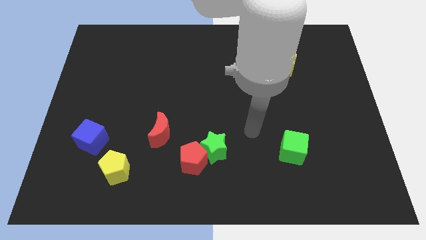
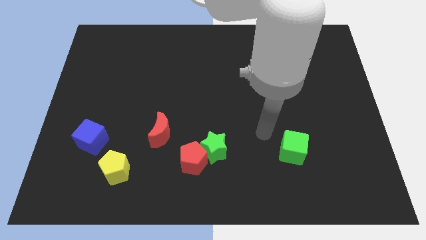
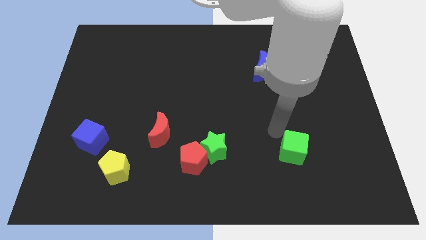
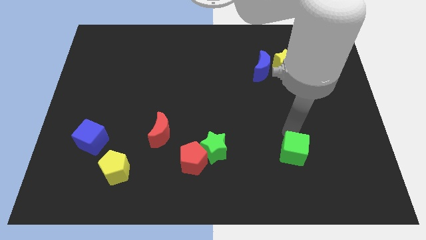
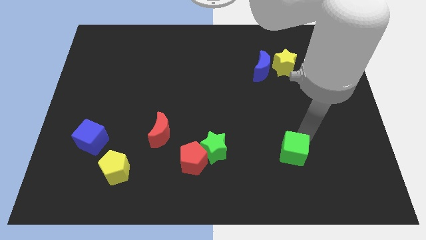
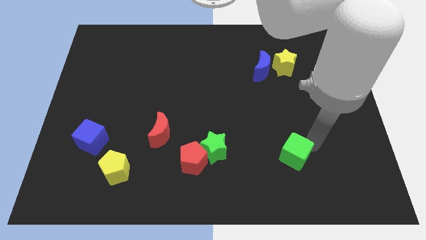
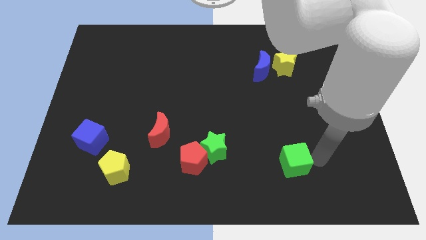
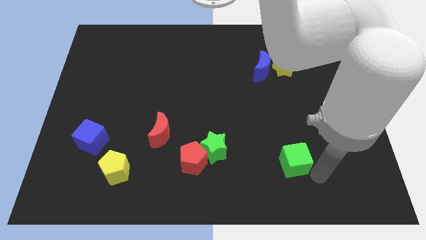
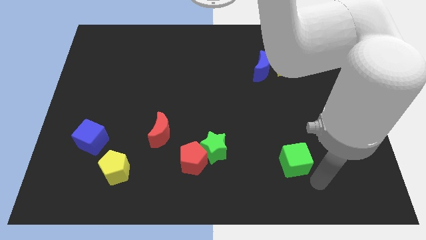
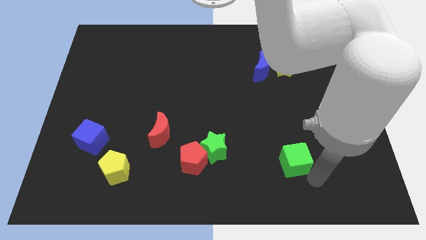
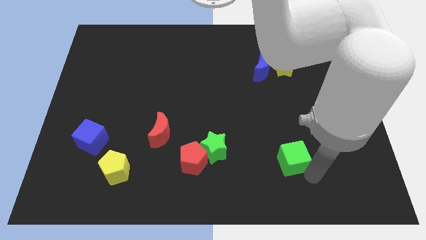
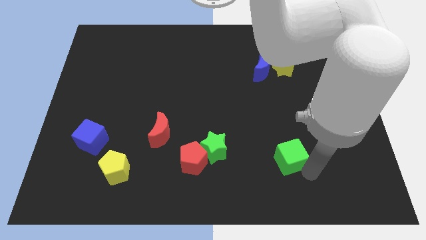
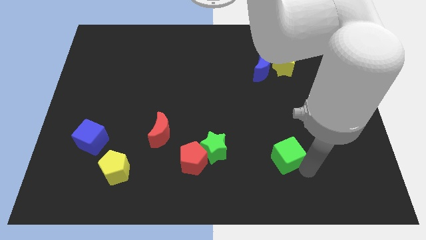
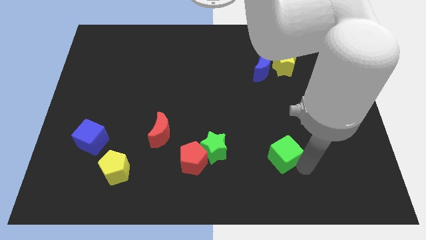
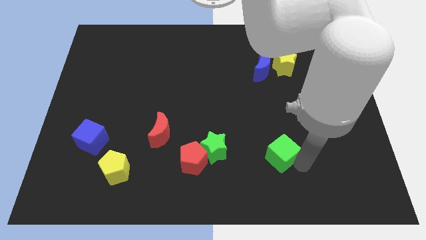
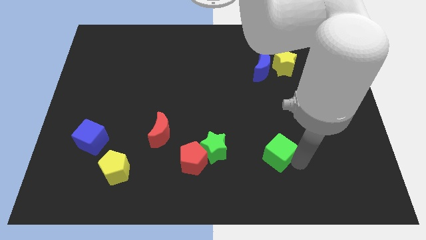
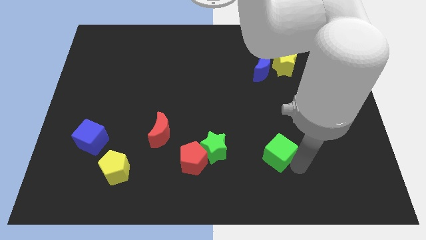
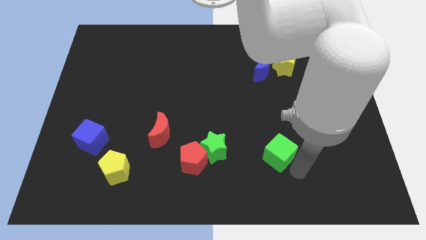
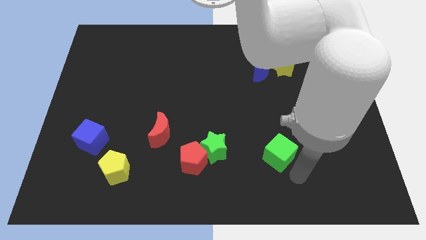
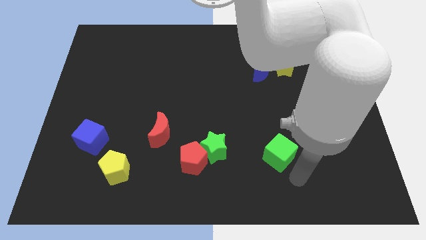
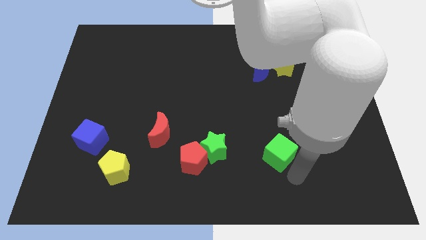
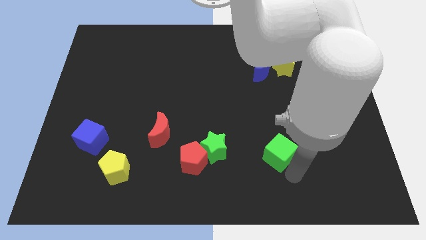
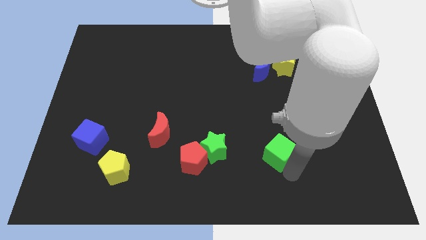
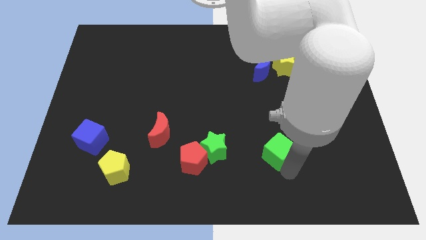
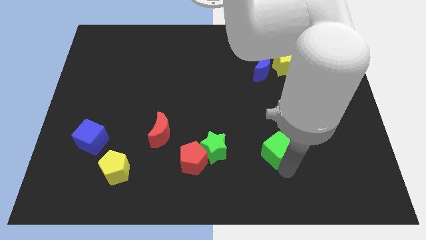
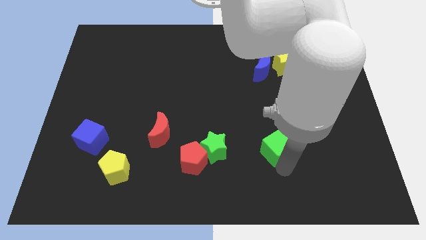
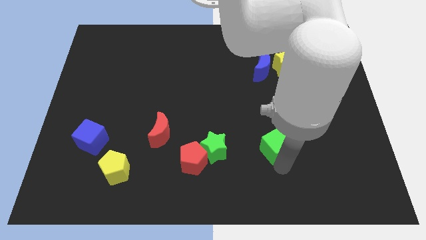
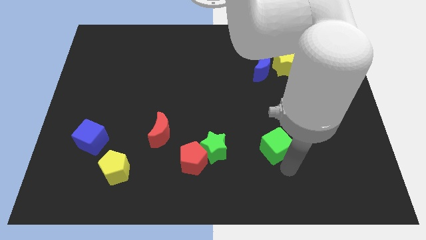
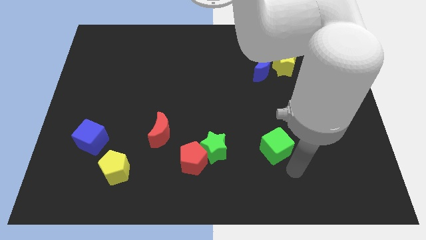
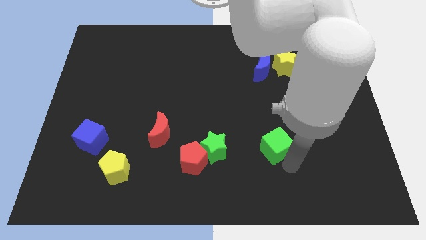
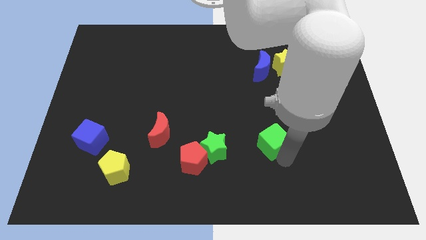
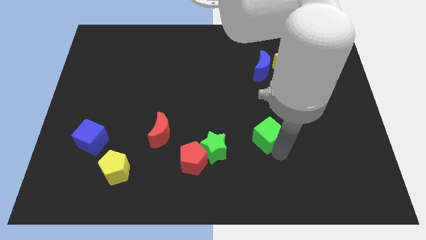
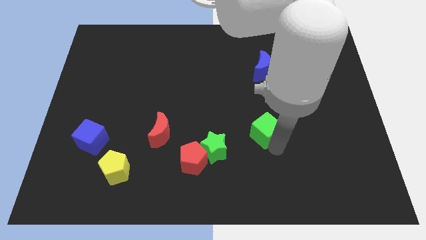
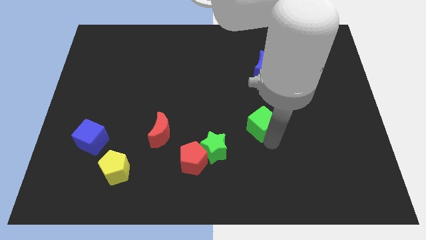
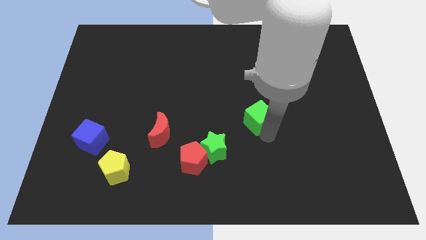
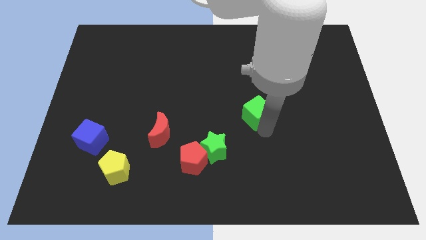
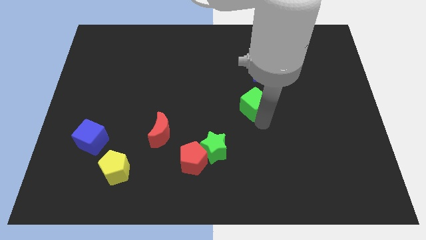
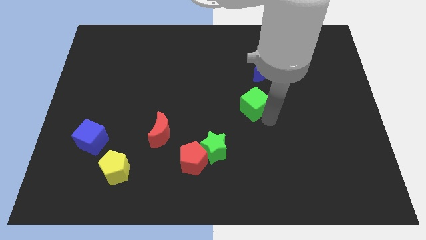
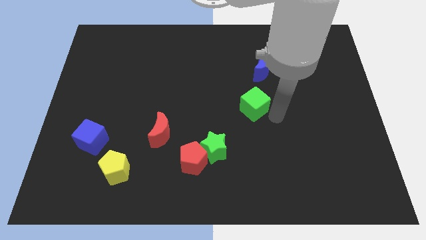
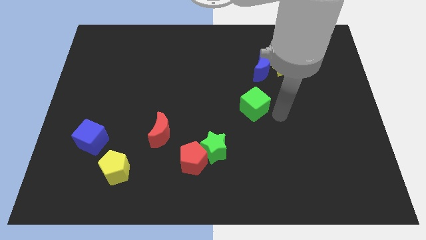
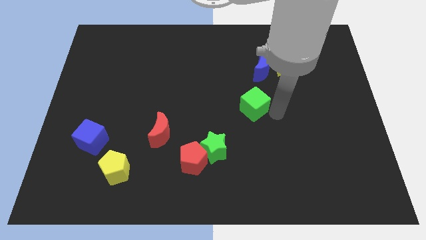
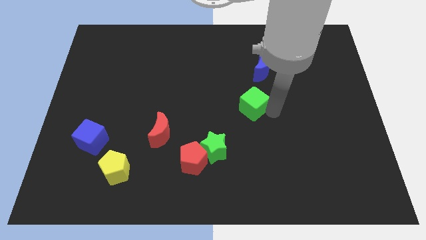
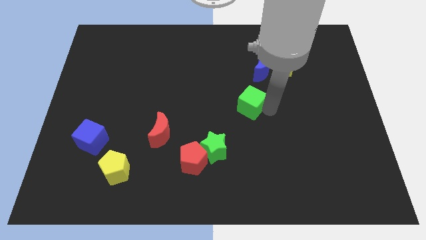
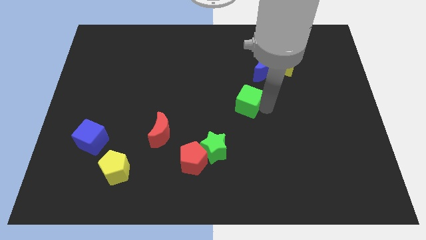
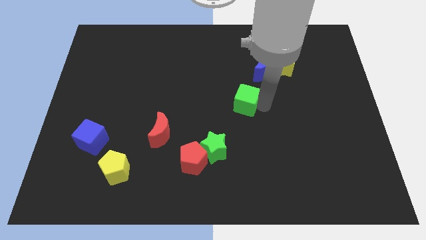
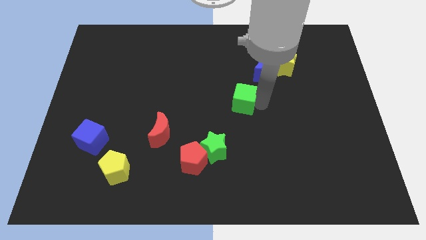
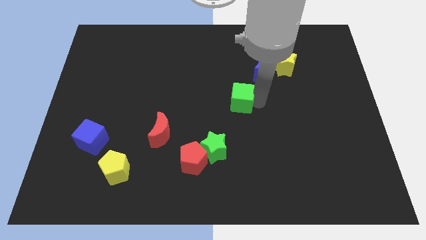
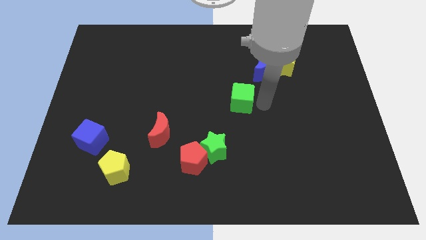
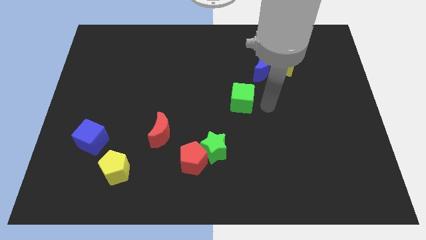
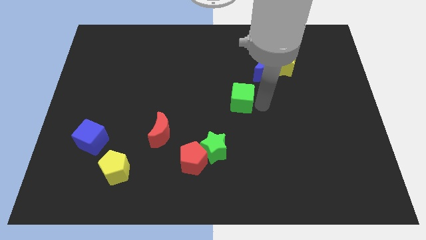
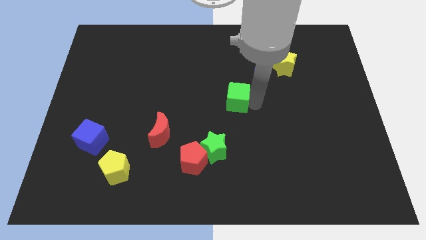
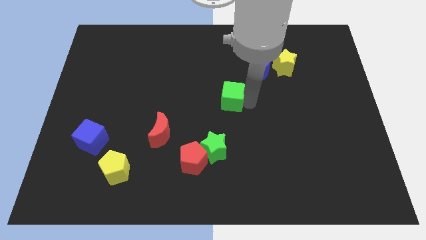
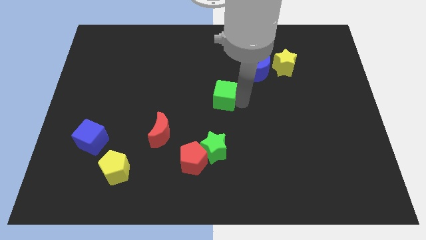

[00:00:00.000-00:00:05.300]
push the green cube upwards and left

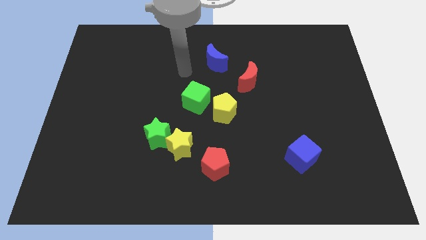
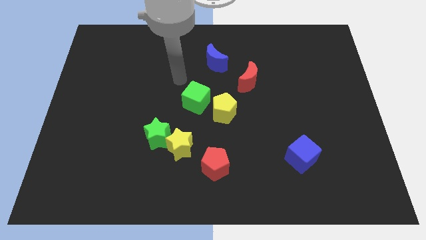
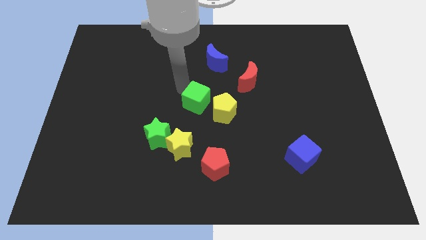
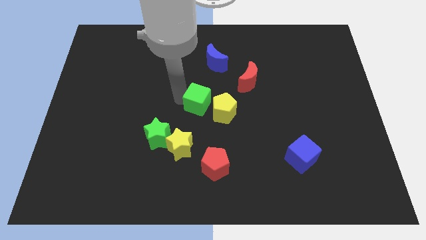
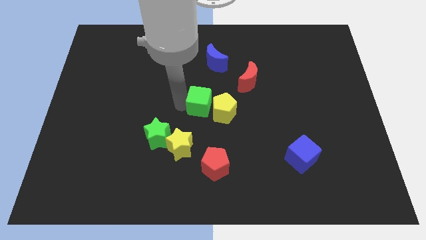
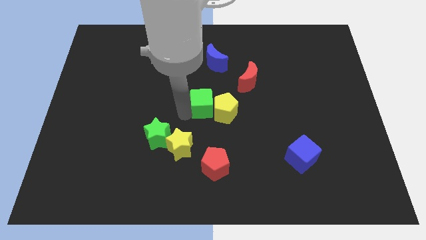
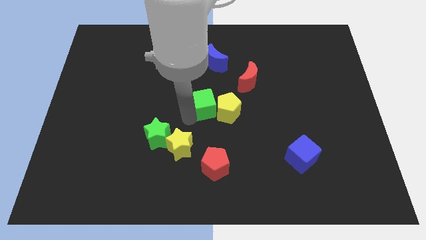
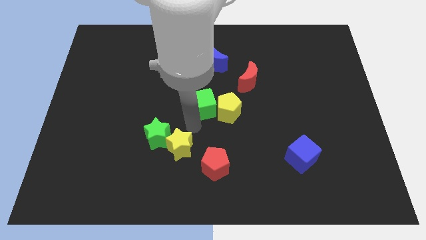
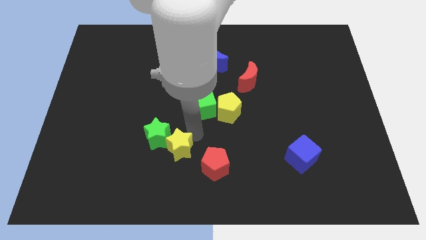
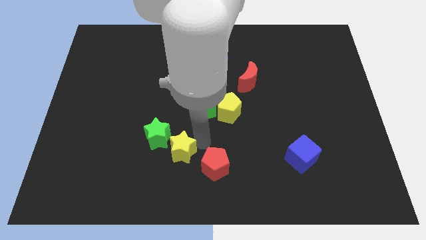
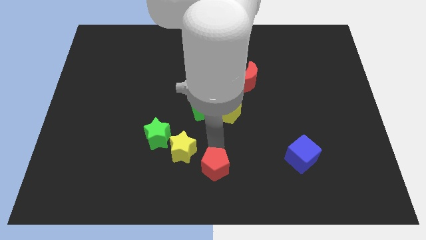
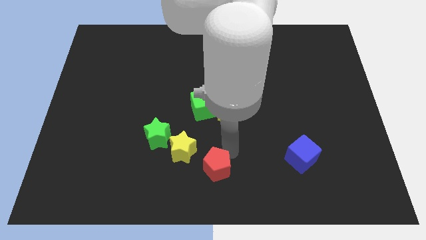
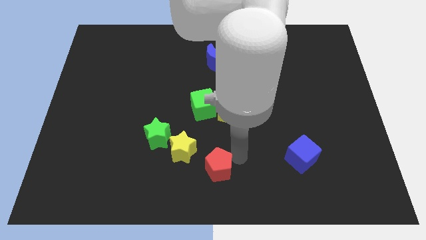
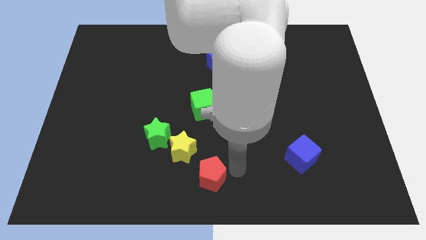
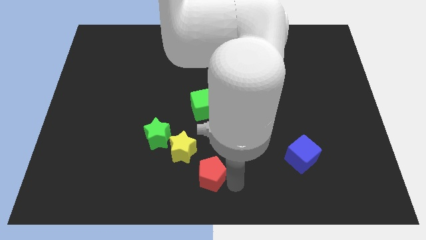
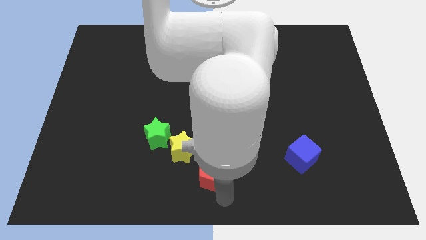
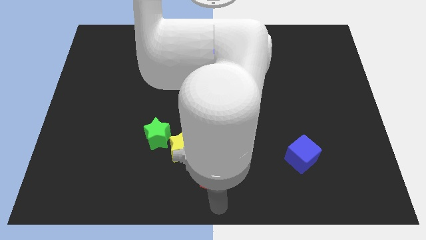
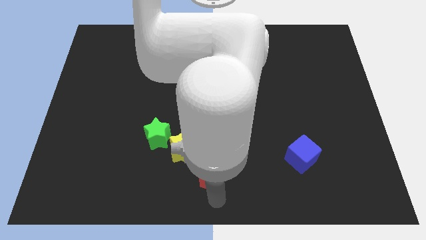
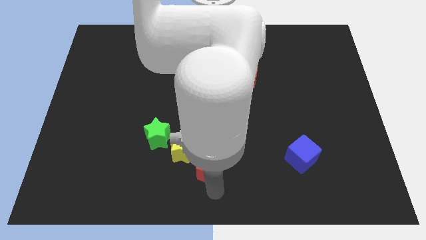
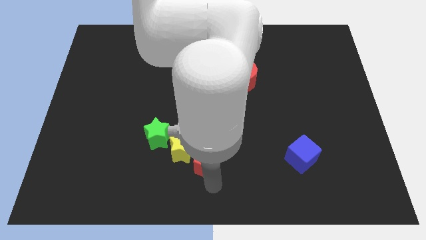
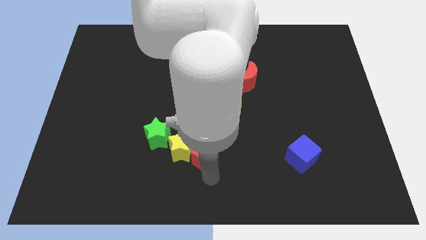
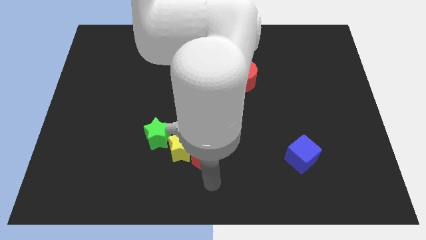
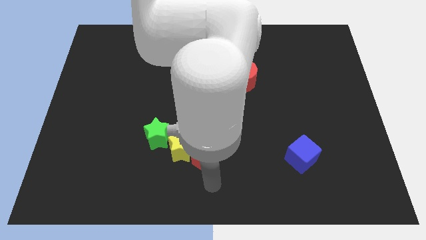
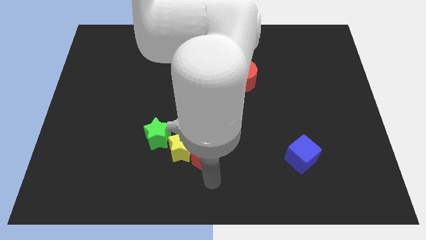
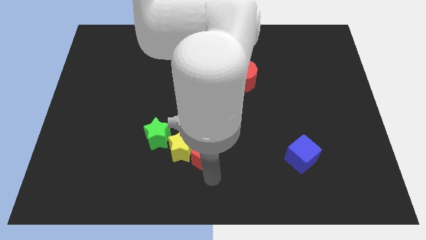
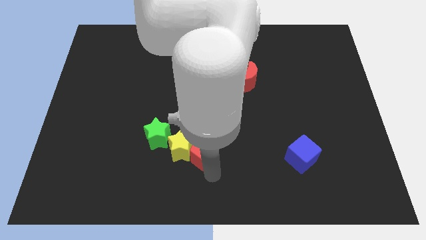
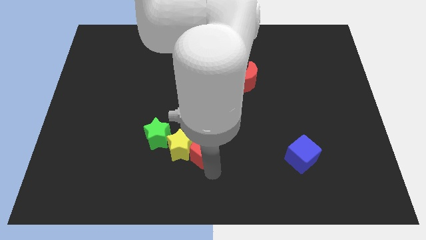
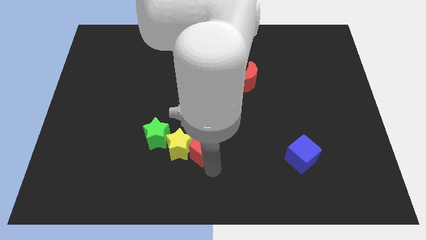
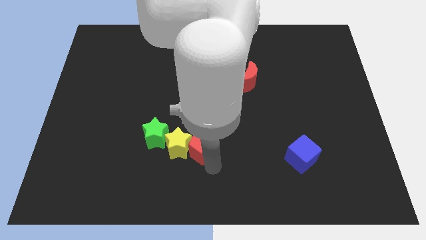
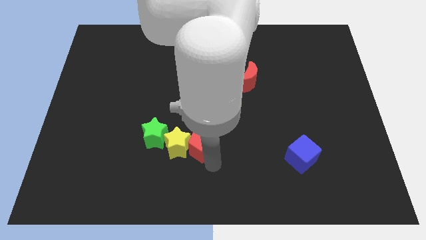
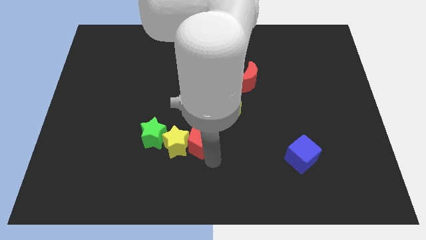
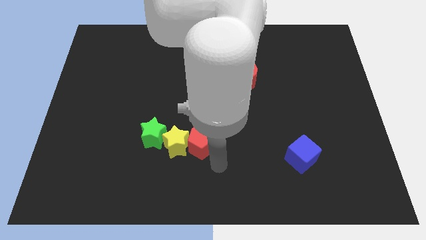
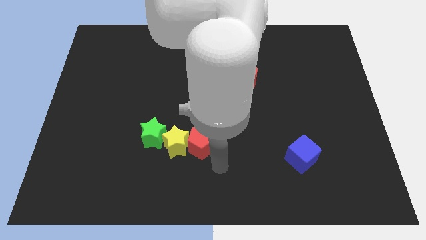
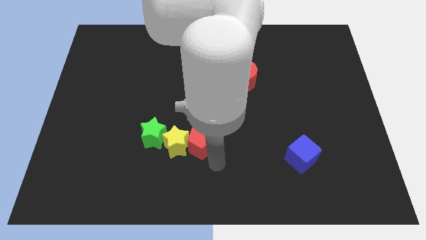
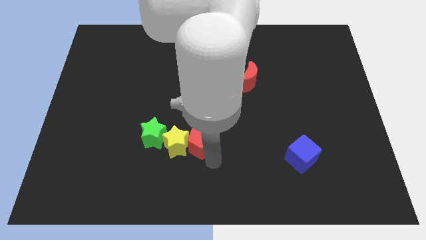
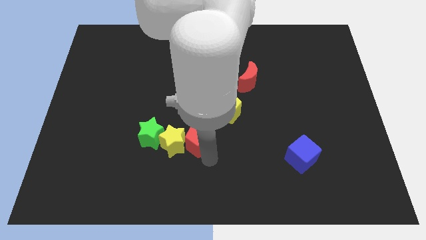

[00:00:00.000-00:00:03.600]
move the red pentagon slightly diagonally upwards and to the left
